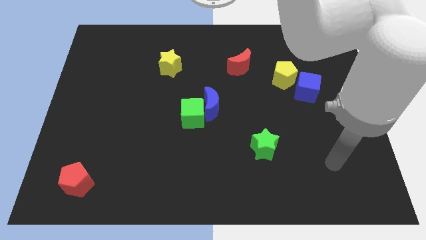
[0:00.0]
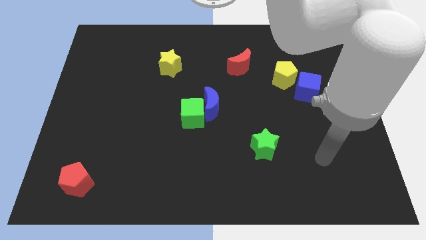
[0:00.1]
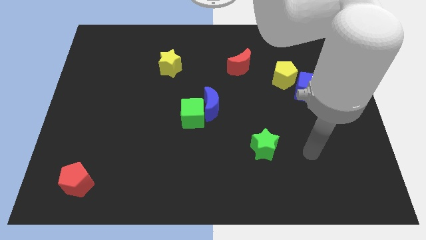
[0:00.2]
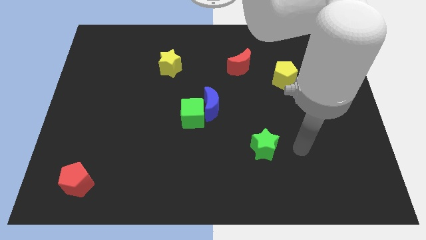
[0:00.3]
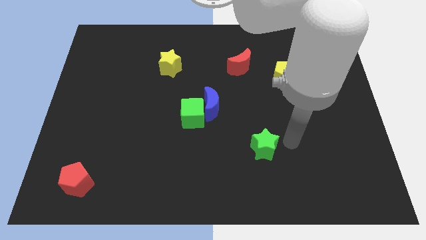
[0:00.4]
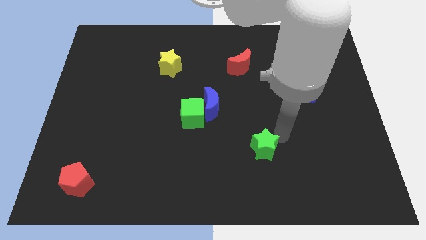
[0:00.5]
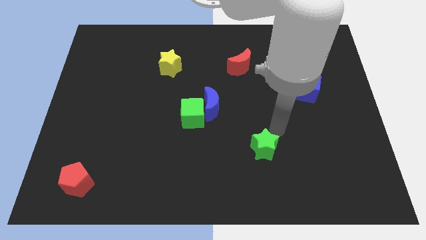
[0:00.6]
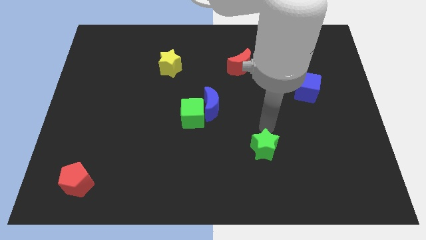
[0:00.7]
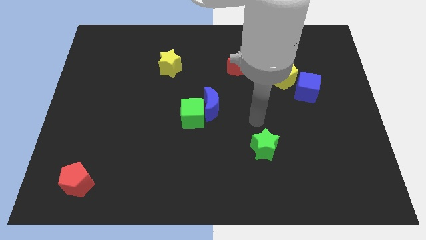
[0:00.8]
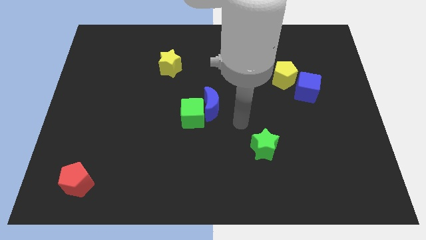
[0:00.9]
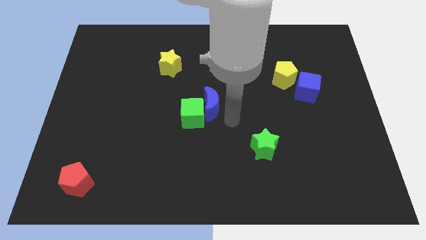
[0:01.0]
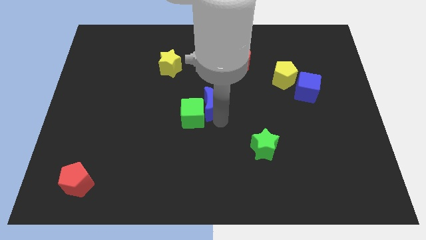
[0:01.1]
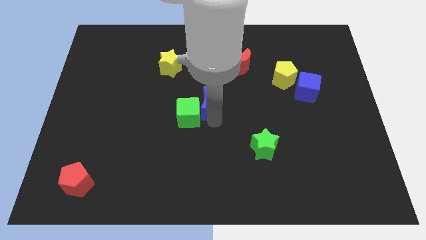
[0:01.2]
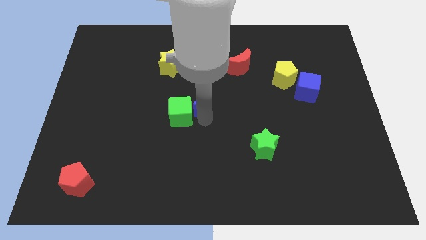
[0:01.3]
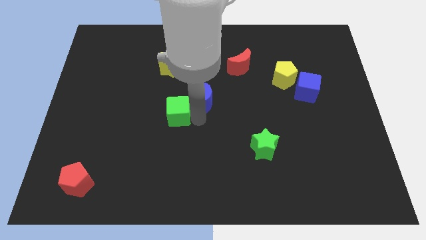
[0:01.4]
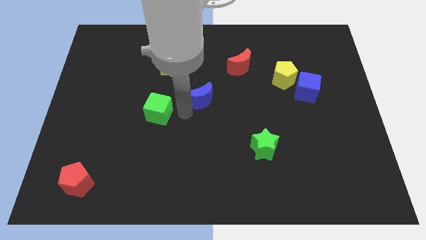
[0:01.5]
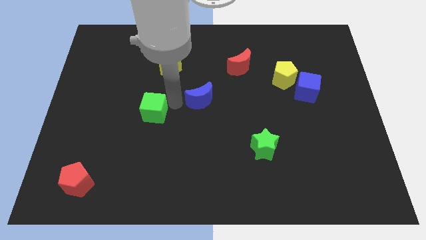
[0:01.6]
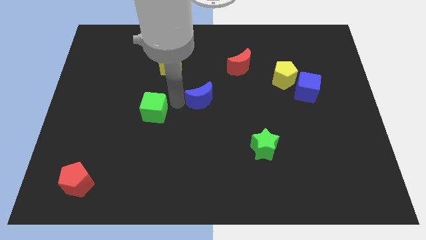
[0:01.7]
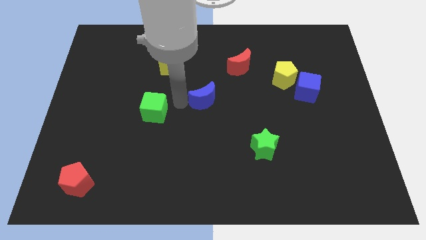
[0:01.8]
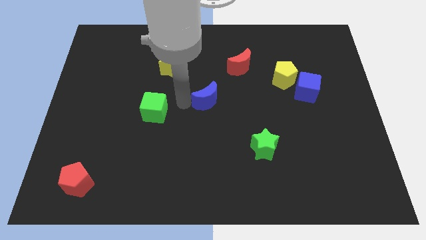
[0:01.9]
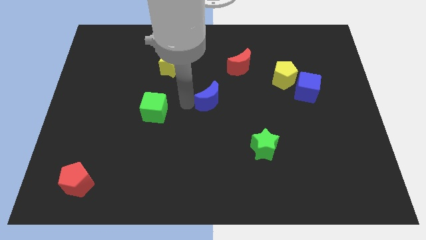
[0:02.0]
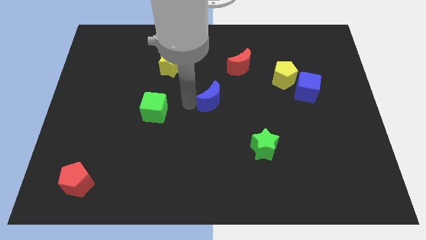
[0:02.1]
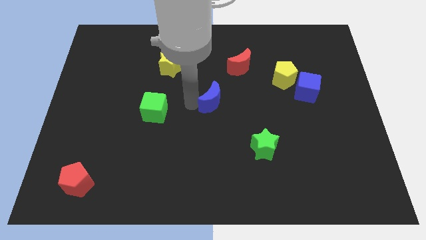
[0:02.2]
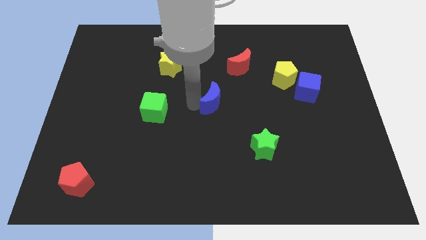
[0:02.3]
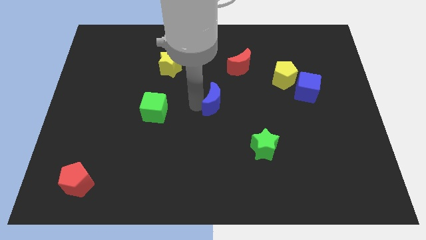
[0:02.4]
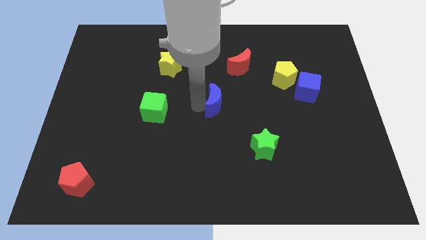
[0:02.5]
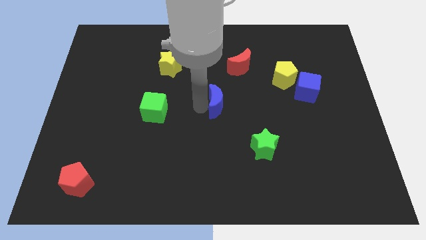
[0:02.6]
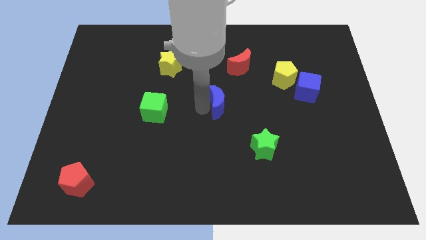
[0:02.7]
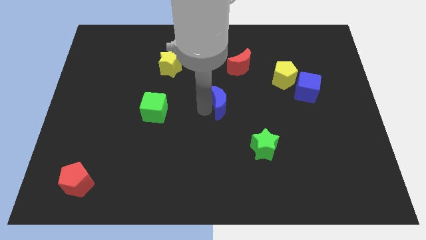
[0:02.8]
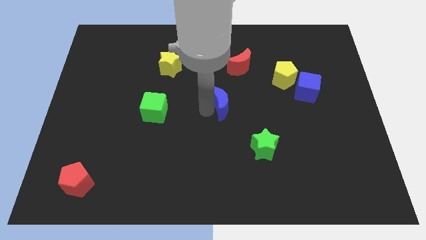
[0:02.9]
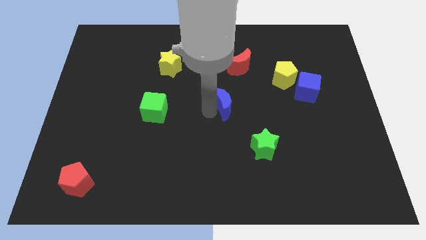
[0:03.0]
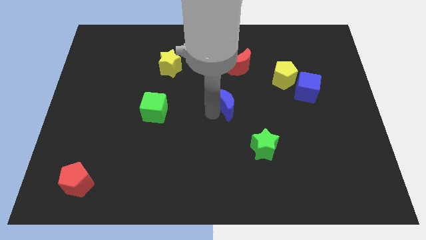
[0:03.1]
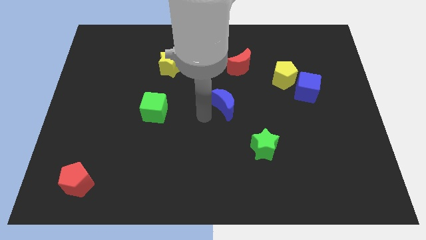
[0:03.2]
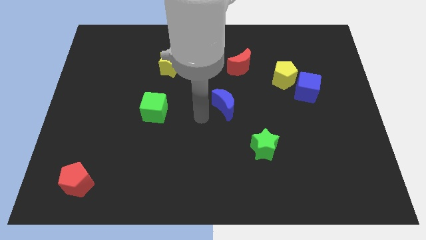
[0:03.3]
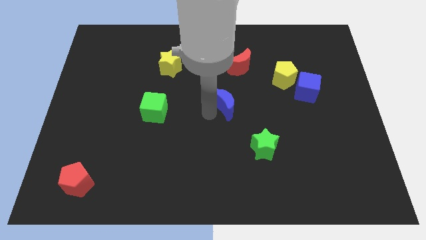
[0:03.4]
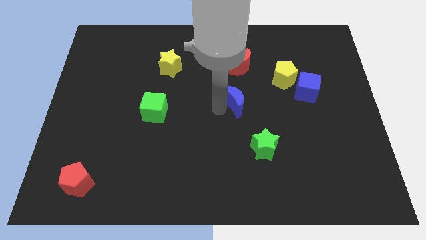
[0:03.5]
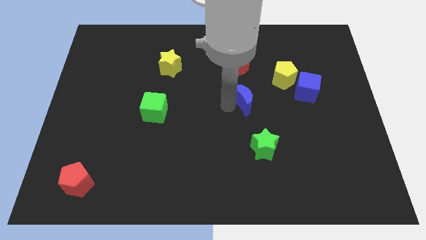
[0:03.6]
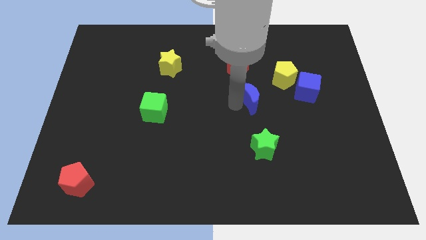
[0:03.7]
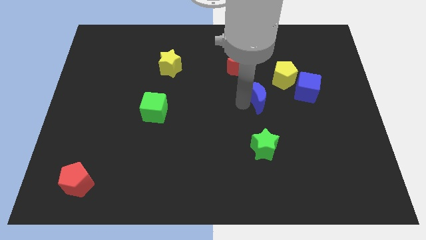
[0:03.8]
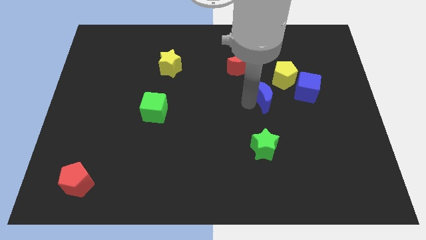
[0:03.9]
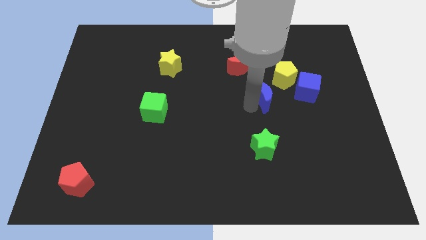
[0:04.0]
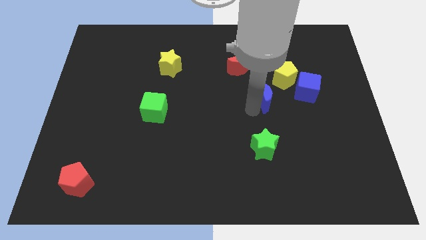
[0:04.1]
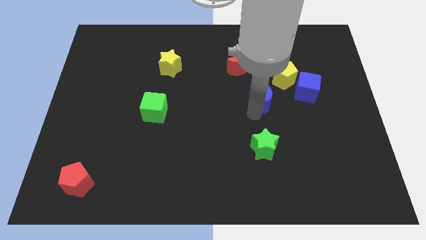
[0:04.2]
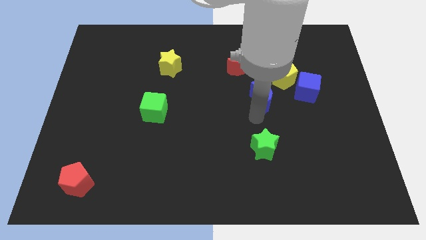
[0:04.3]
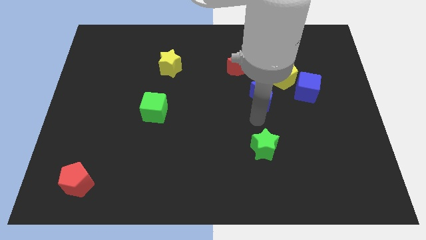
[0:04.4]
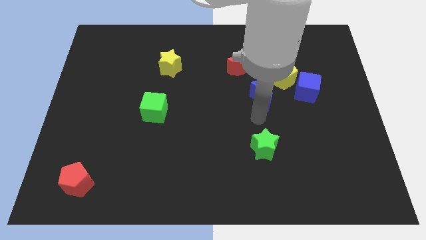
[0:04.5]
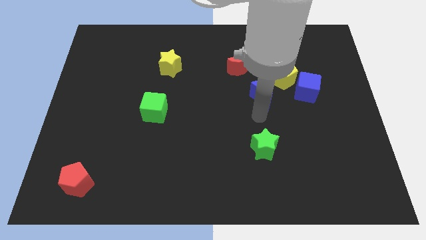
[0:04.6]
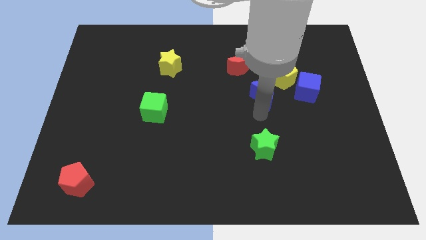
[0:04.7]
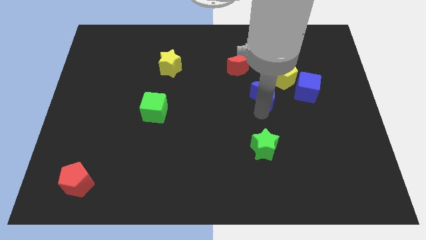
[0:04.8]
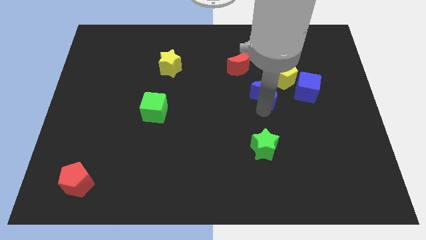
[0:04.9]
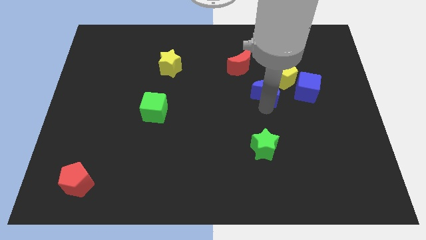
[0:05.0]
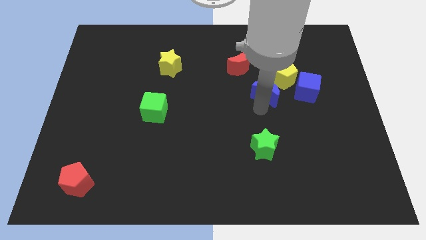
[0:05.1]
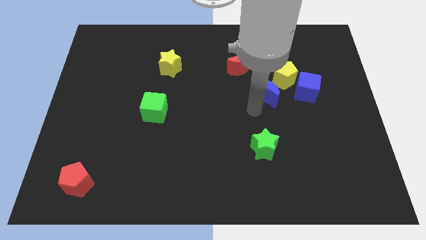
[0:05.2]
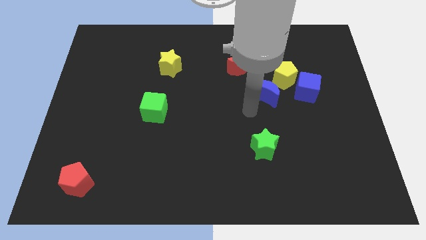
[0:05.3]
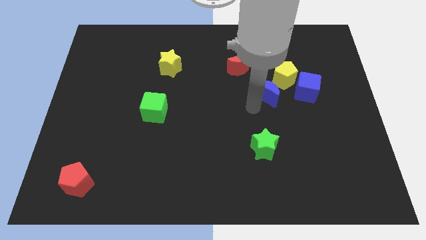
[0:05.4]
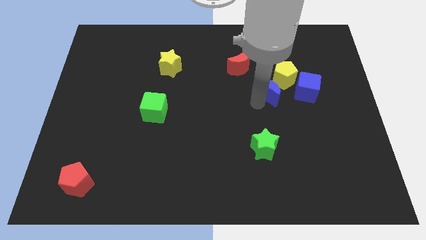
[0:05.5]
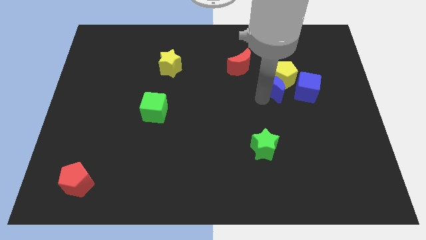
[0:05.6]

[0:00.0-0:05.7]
slide the blue moon close to the yellow pentagon

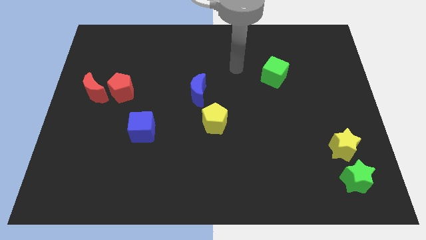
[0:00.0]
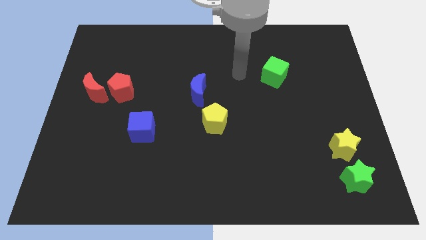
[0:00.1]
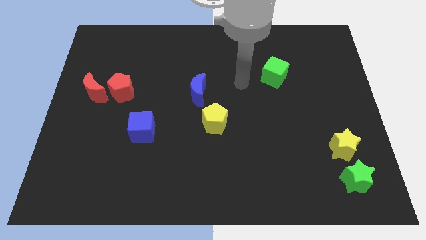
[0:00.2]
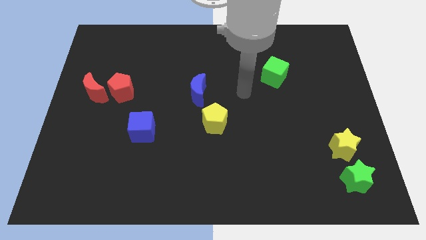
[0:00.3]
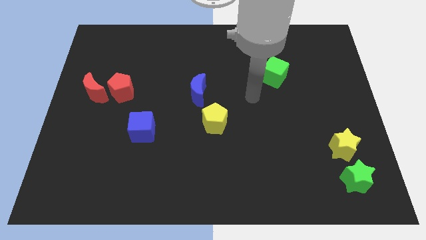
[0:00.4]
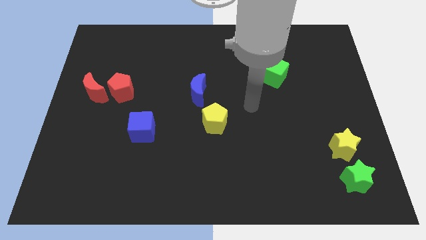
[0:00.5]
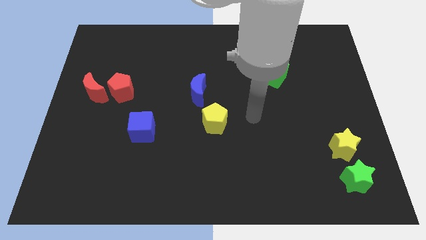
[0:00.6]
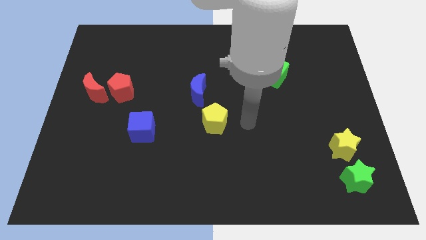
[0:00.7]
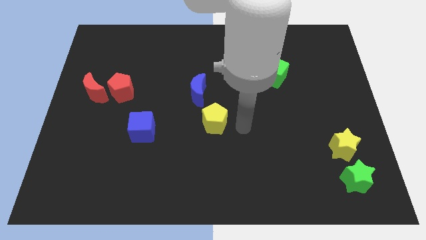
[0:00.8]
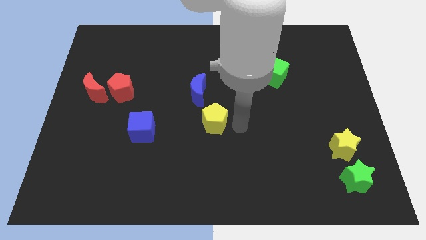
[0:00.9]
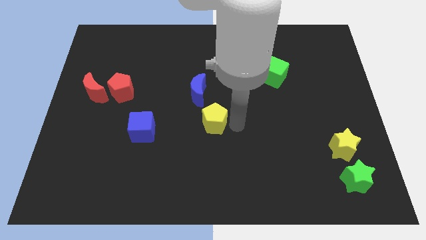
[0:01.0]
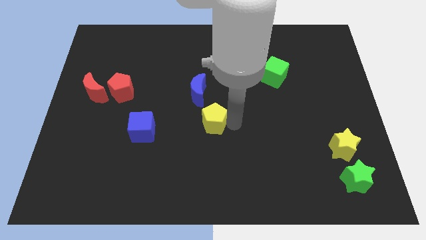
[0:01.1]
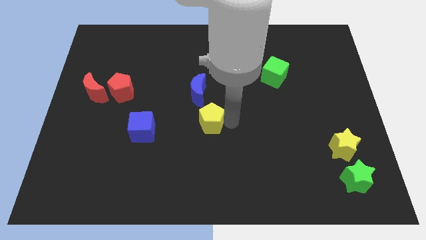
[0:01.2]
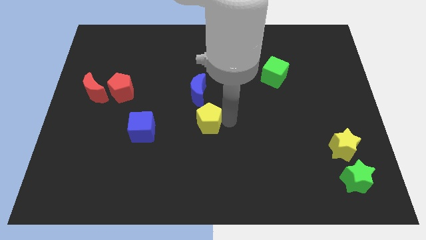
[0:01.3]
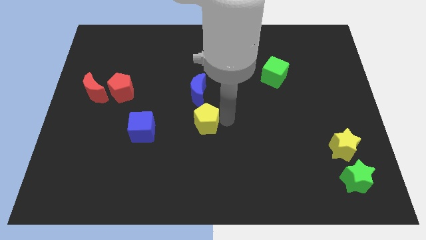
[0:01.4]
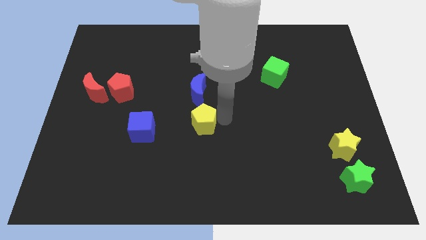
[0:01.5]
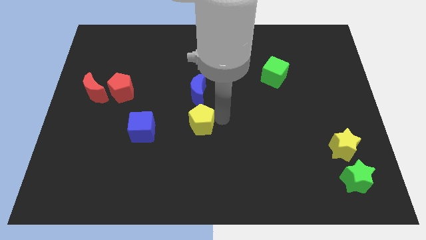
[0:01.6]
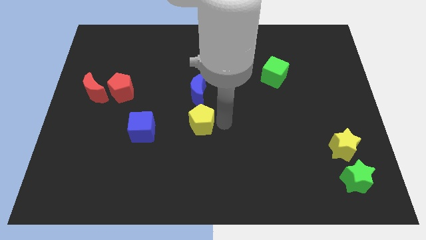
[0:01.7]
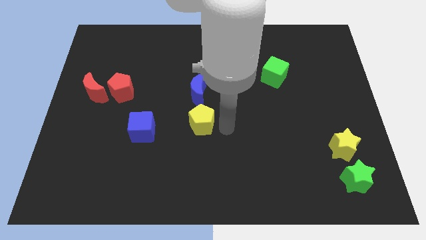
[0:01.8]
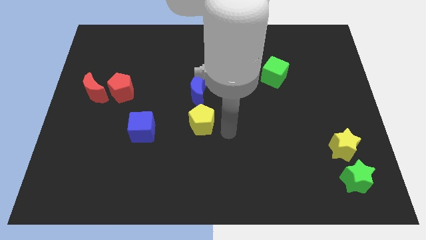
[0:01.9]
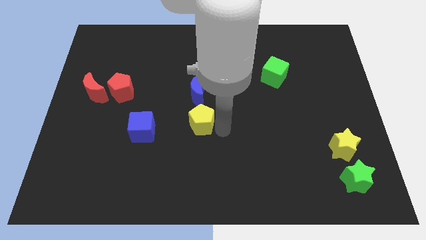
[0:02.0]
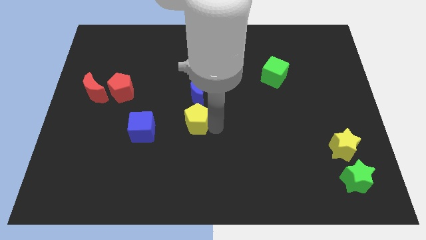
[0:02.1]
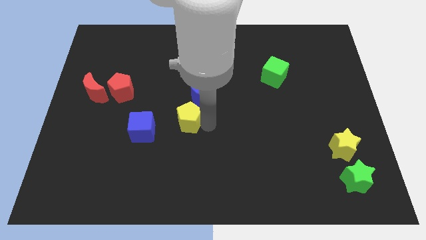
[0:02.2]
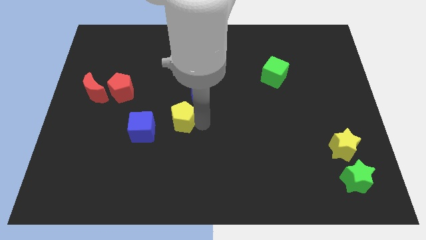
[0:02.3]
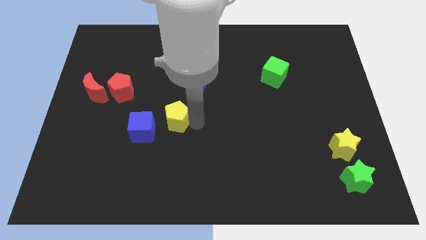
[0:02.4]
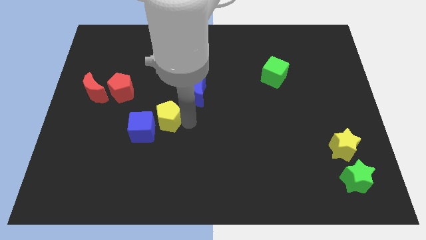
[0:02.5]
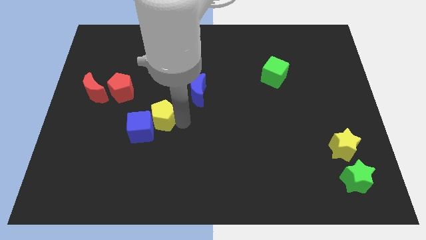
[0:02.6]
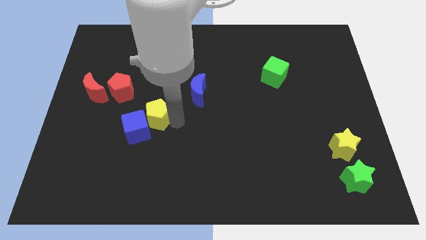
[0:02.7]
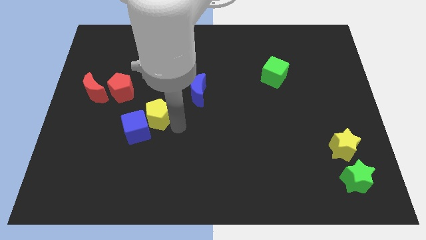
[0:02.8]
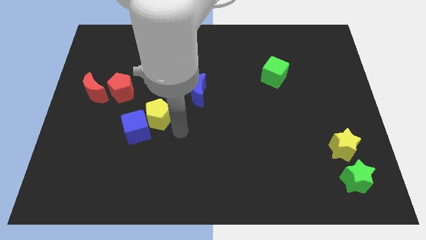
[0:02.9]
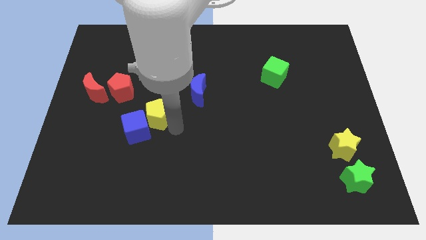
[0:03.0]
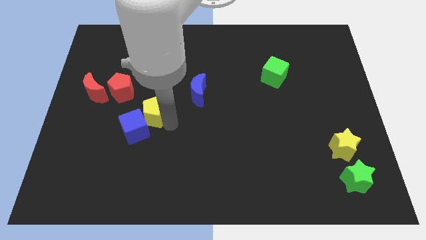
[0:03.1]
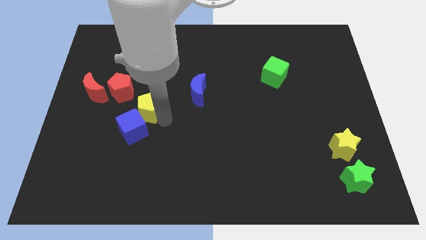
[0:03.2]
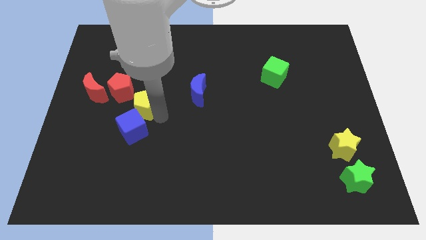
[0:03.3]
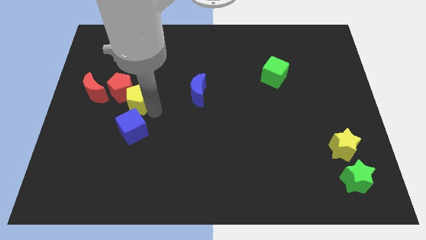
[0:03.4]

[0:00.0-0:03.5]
push the yellow pentagon to the red pentagon
